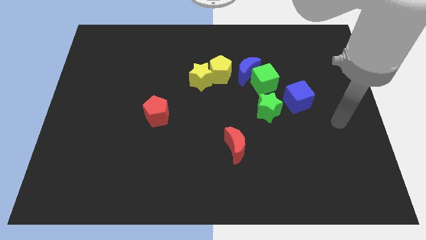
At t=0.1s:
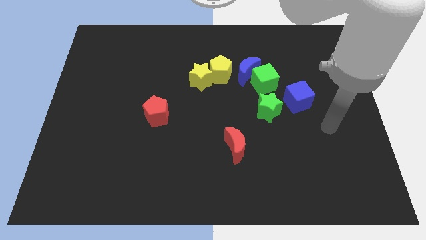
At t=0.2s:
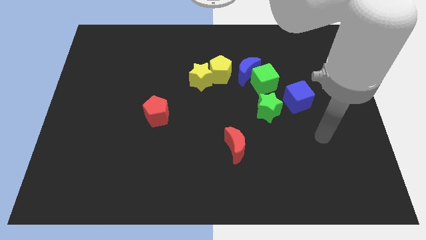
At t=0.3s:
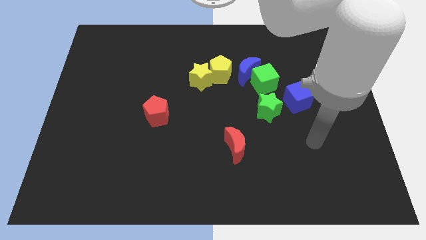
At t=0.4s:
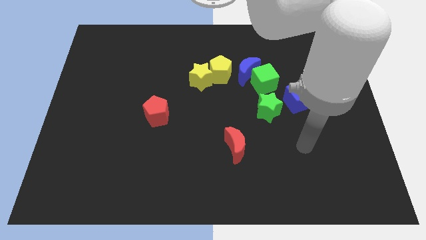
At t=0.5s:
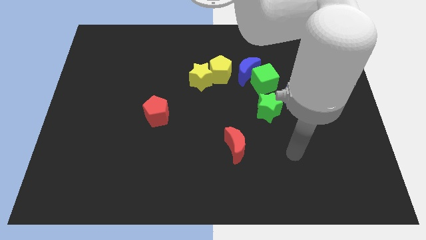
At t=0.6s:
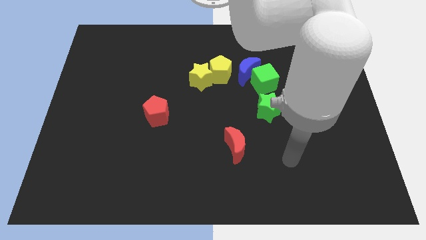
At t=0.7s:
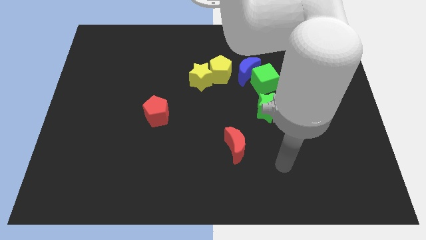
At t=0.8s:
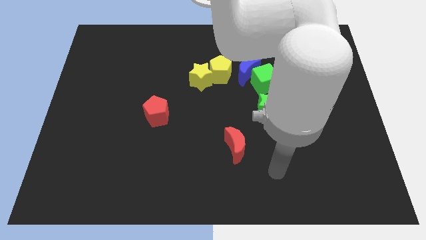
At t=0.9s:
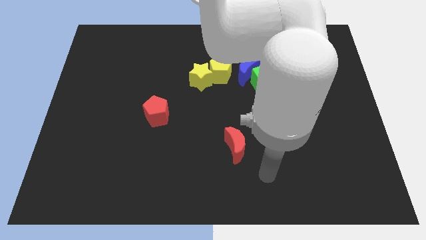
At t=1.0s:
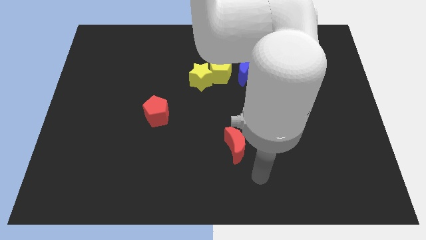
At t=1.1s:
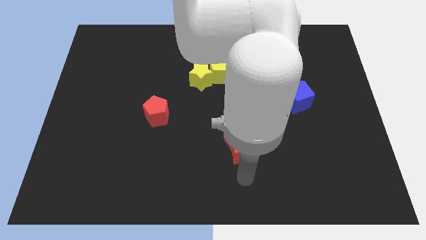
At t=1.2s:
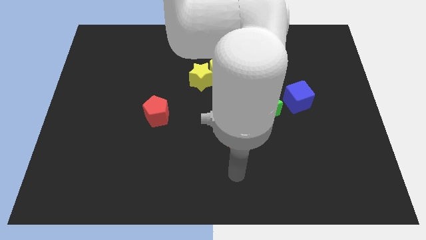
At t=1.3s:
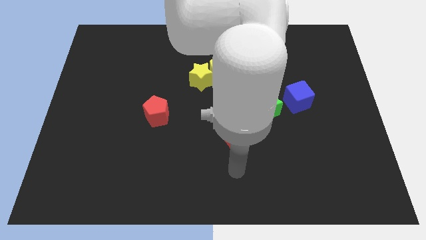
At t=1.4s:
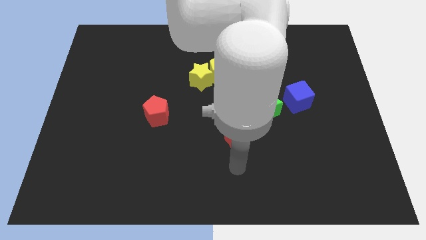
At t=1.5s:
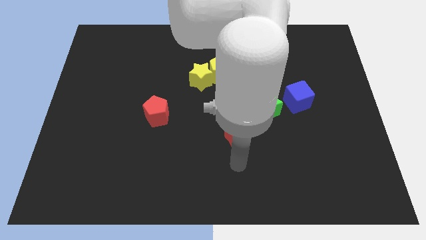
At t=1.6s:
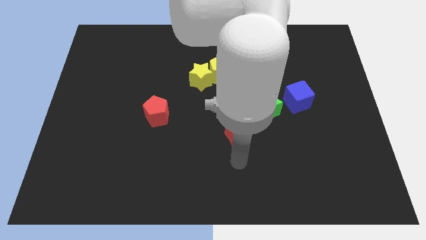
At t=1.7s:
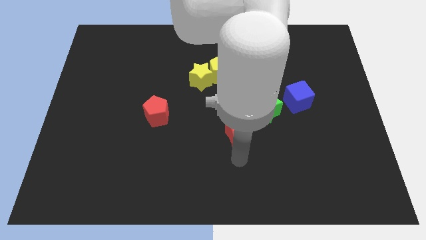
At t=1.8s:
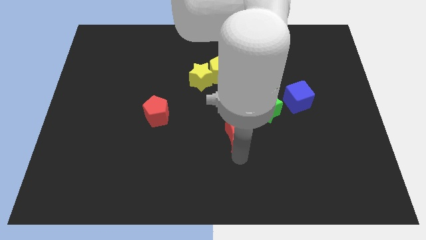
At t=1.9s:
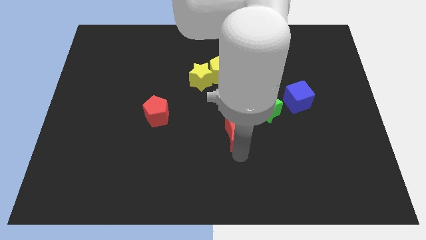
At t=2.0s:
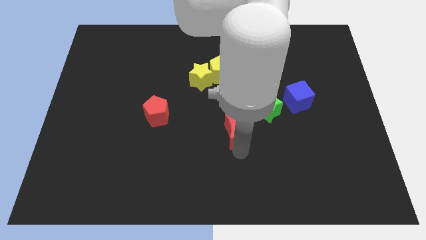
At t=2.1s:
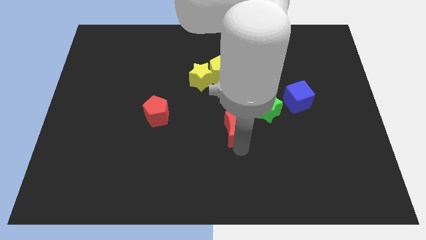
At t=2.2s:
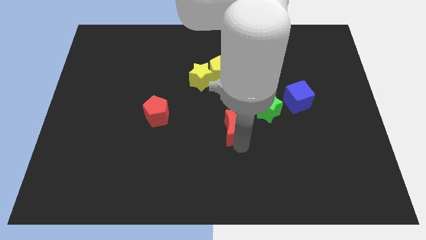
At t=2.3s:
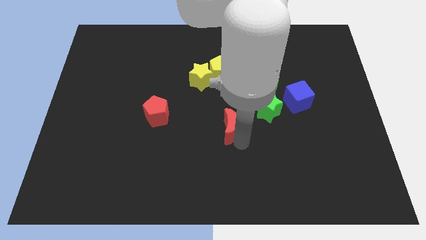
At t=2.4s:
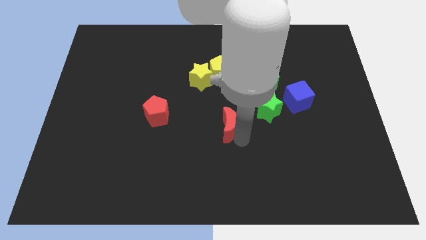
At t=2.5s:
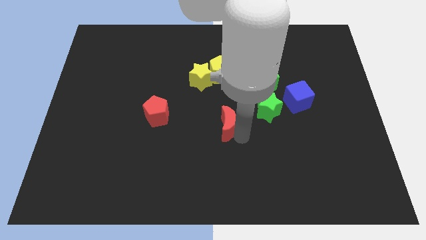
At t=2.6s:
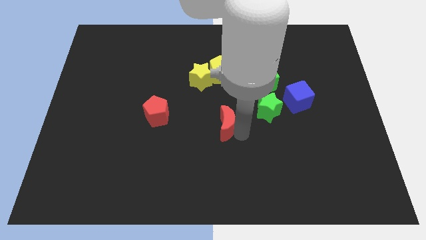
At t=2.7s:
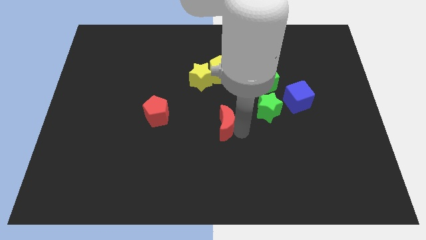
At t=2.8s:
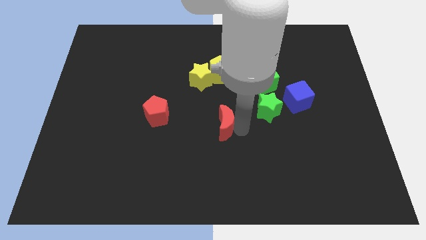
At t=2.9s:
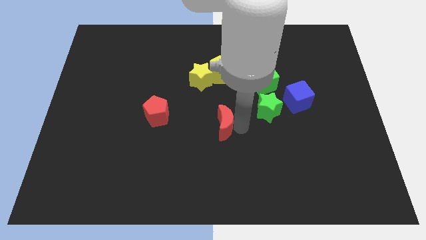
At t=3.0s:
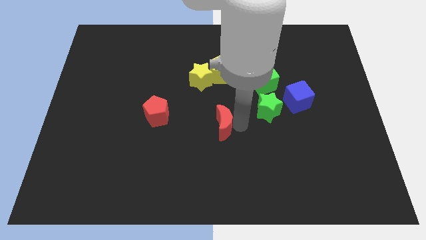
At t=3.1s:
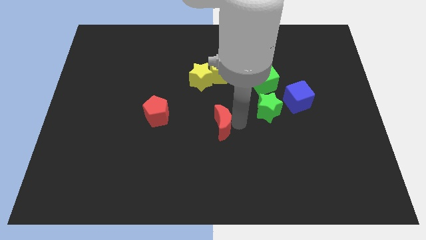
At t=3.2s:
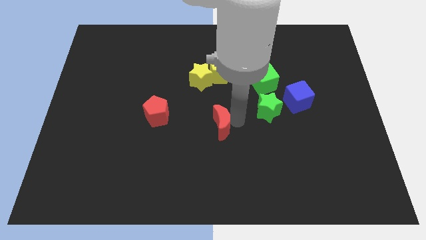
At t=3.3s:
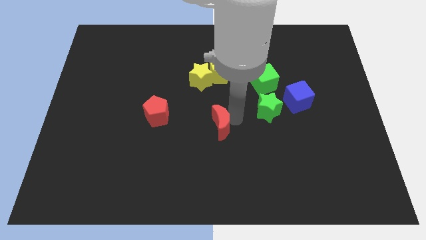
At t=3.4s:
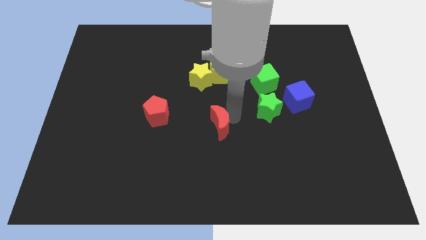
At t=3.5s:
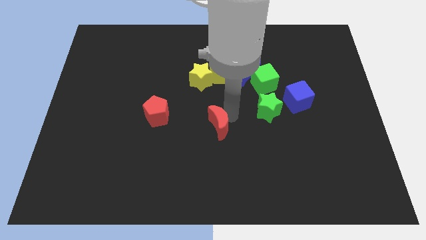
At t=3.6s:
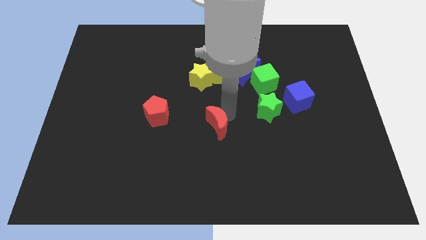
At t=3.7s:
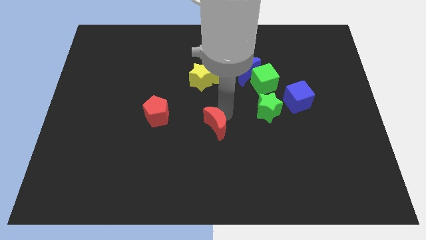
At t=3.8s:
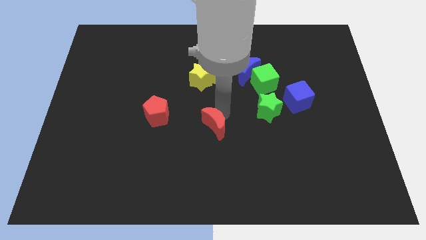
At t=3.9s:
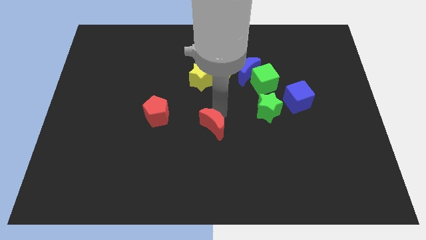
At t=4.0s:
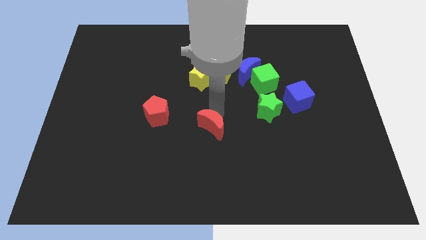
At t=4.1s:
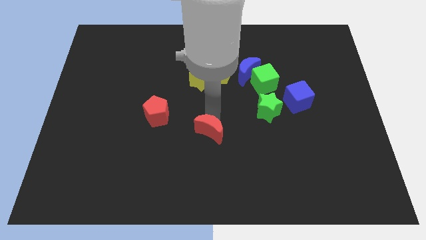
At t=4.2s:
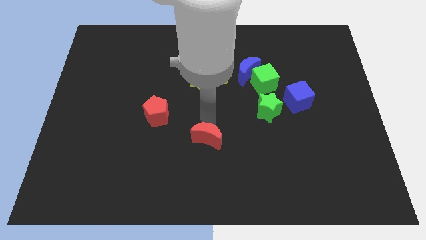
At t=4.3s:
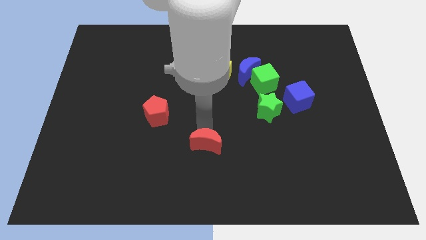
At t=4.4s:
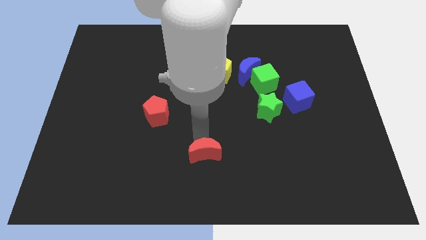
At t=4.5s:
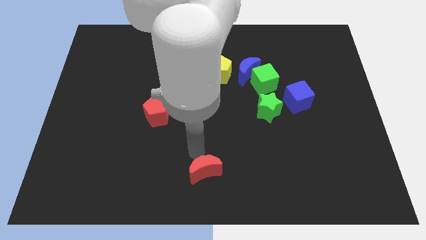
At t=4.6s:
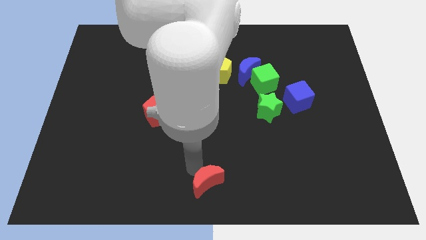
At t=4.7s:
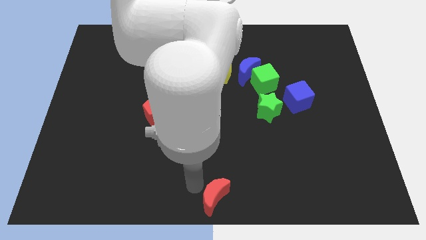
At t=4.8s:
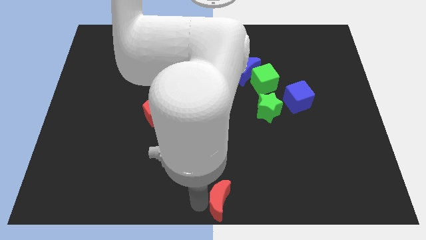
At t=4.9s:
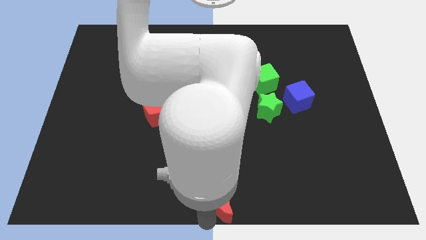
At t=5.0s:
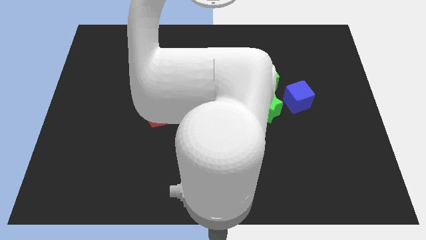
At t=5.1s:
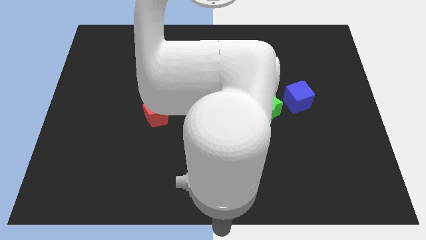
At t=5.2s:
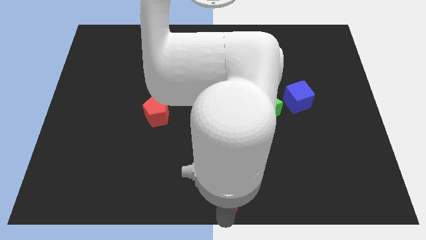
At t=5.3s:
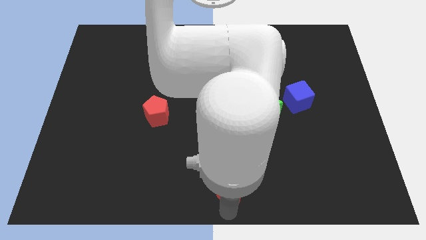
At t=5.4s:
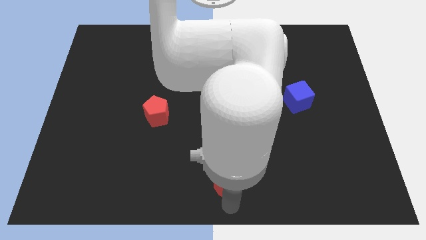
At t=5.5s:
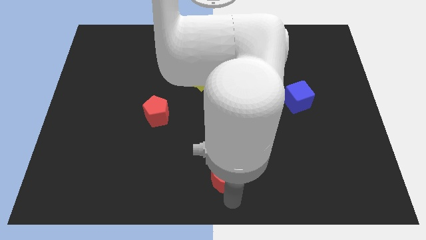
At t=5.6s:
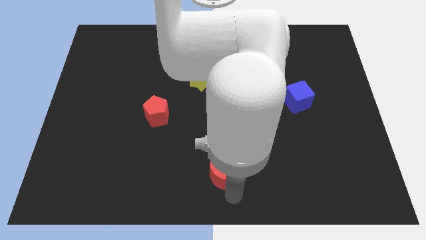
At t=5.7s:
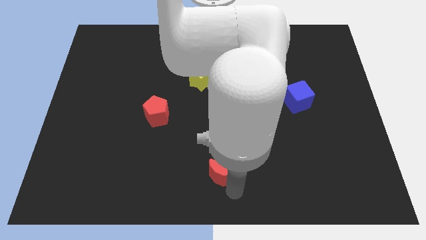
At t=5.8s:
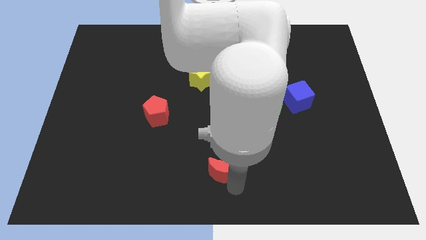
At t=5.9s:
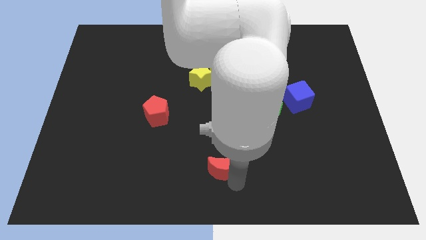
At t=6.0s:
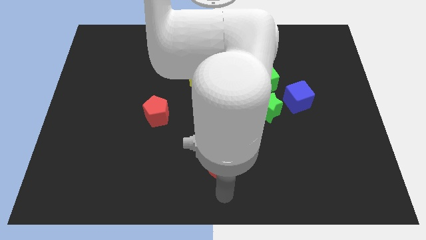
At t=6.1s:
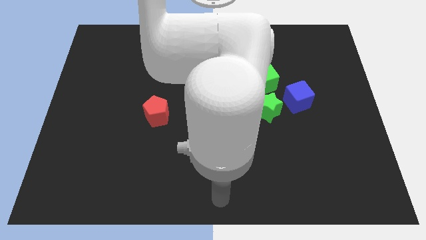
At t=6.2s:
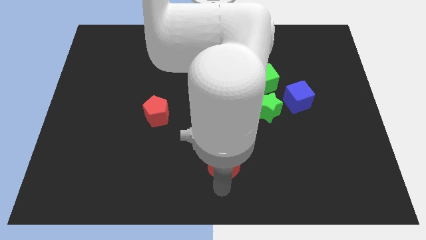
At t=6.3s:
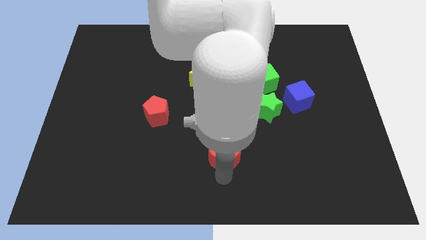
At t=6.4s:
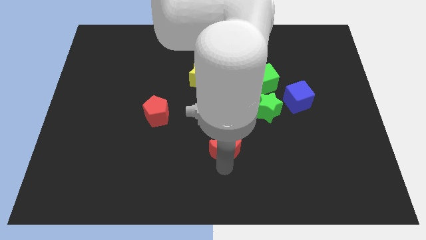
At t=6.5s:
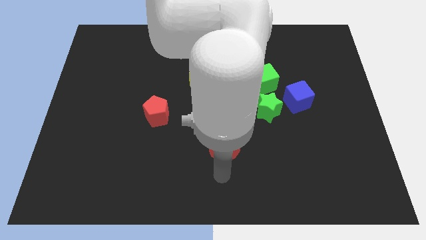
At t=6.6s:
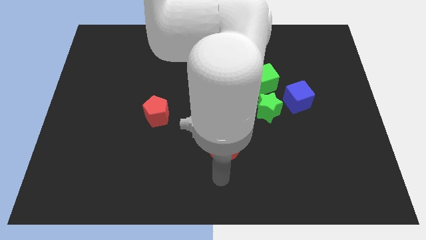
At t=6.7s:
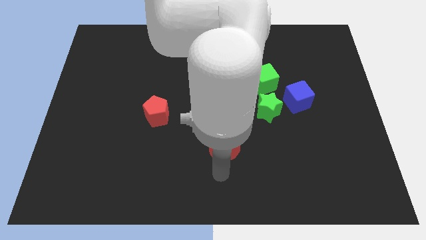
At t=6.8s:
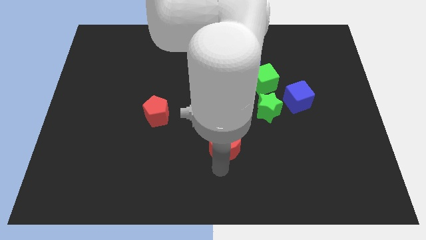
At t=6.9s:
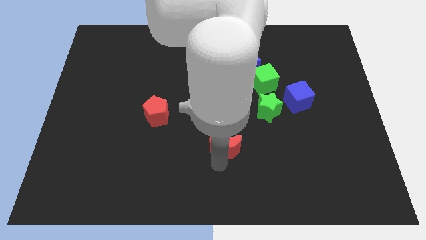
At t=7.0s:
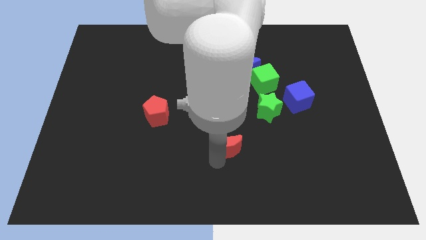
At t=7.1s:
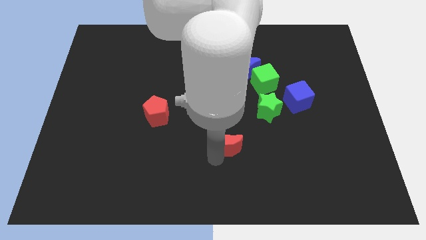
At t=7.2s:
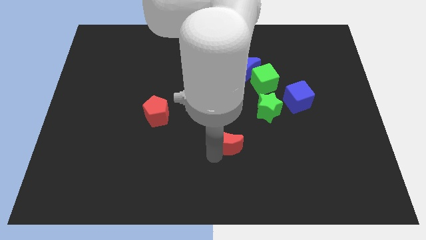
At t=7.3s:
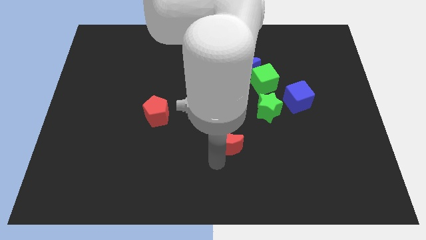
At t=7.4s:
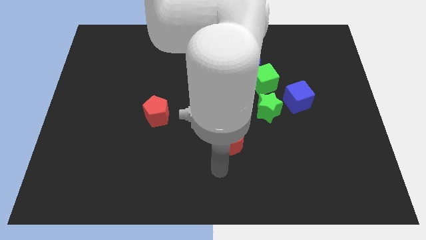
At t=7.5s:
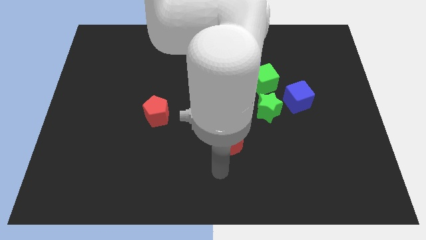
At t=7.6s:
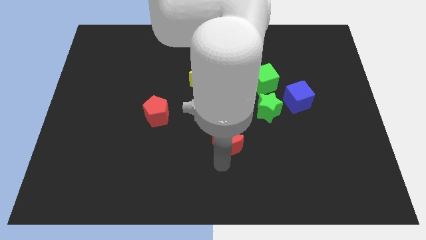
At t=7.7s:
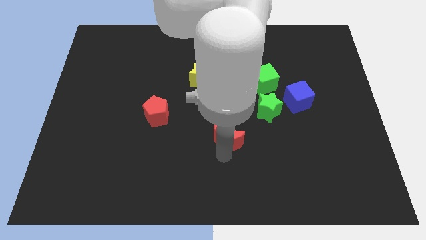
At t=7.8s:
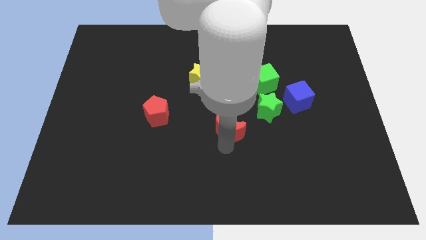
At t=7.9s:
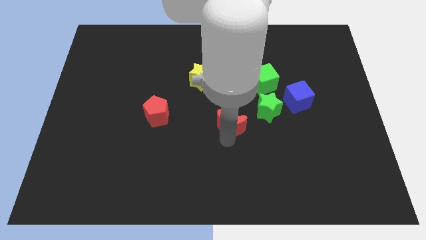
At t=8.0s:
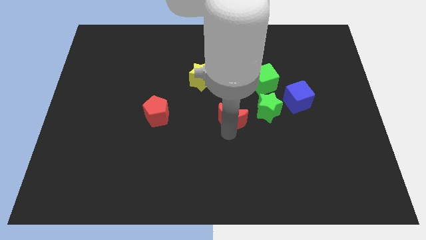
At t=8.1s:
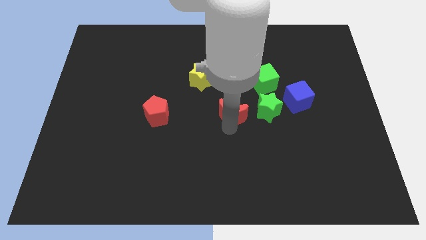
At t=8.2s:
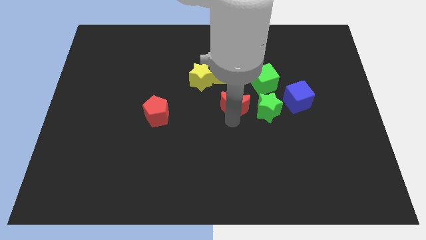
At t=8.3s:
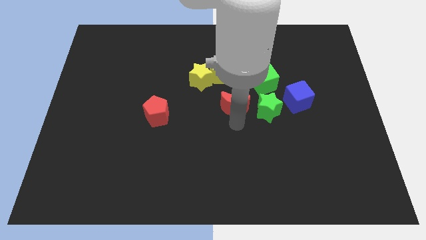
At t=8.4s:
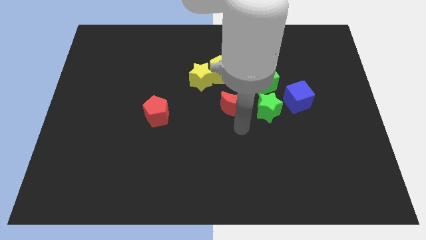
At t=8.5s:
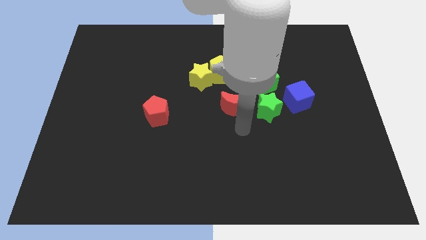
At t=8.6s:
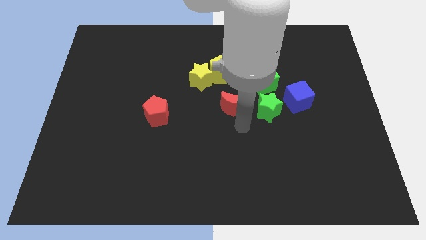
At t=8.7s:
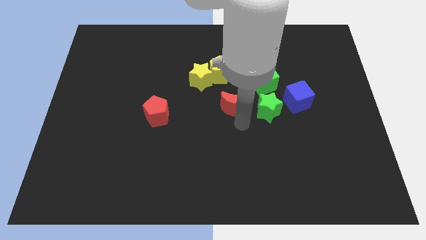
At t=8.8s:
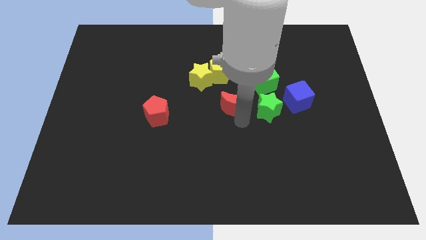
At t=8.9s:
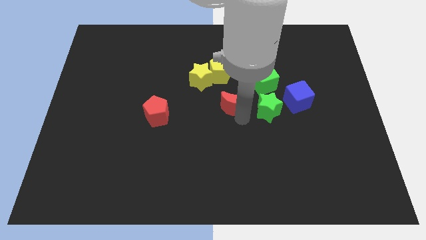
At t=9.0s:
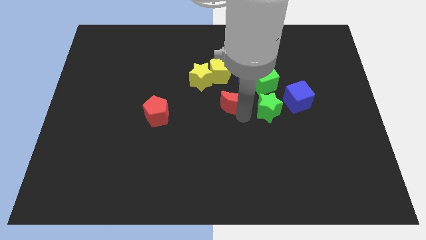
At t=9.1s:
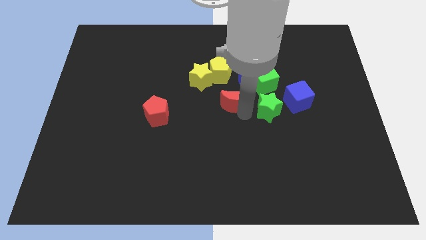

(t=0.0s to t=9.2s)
push the red moon diagonally down and to the left of the blue moon
